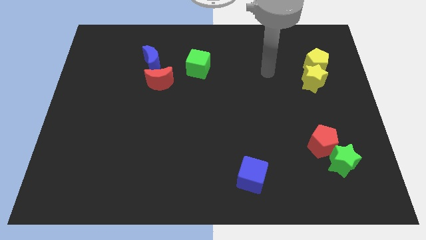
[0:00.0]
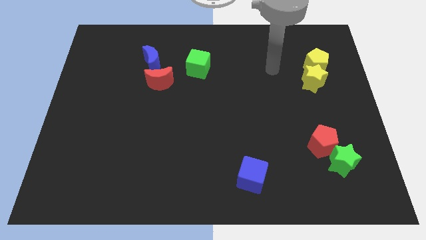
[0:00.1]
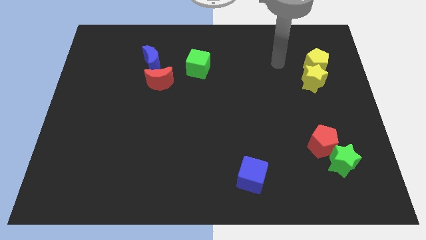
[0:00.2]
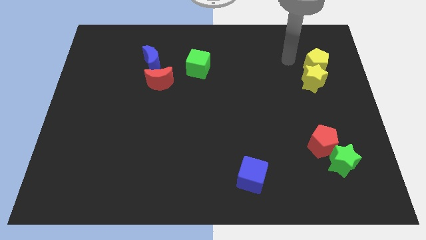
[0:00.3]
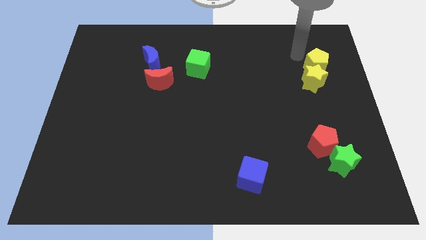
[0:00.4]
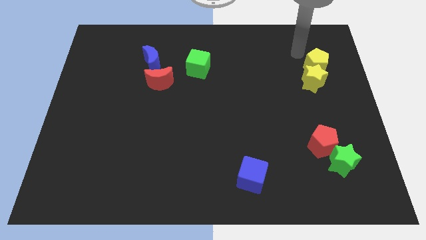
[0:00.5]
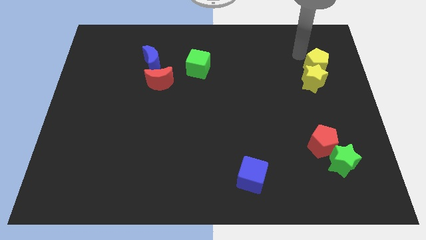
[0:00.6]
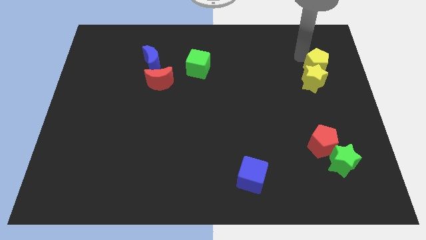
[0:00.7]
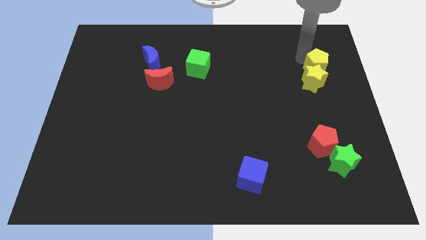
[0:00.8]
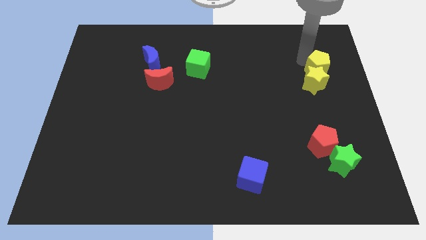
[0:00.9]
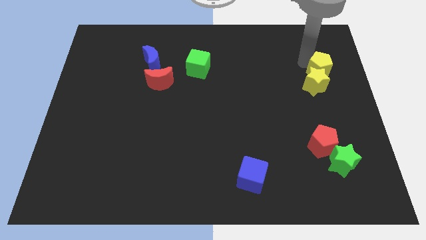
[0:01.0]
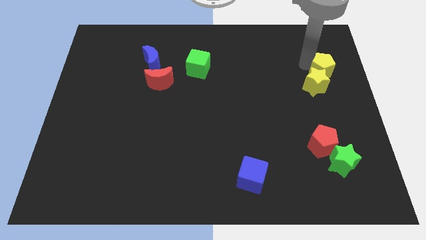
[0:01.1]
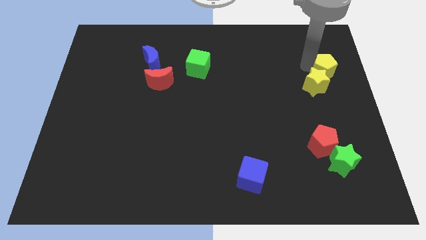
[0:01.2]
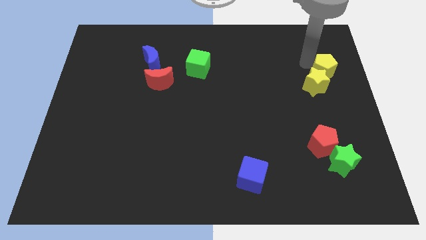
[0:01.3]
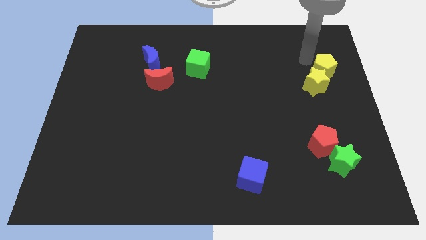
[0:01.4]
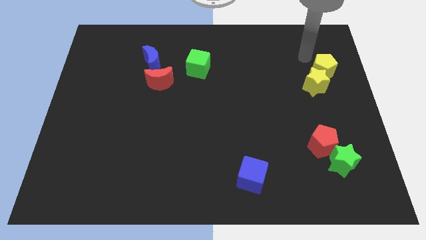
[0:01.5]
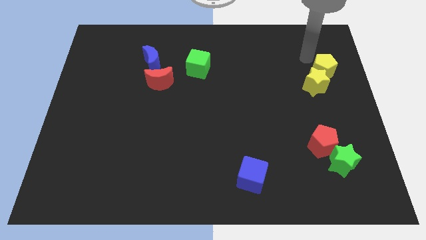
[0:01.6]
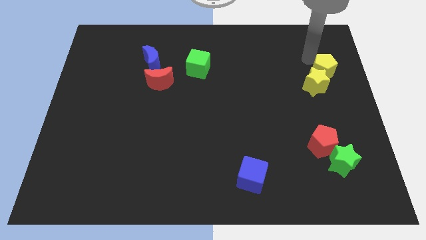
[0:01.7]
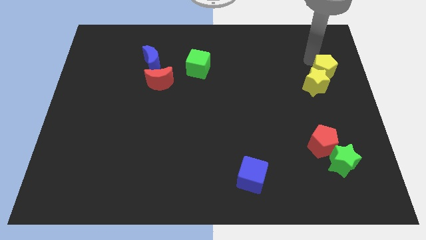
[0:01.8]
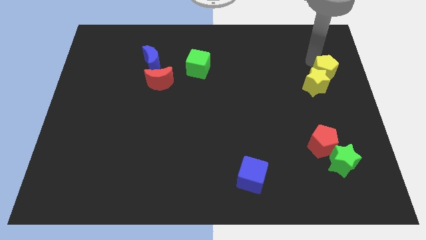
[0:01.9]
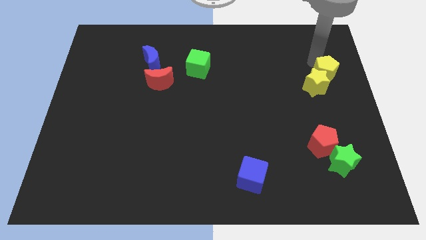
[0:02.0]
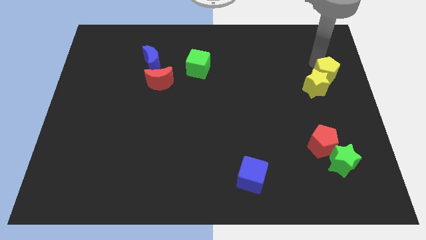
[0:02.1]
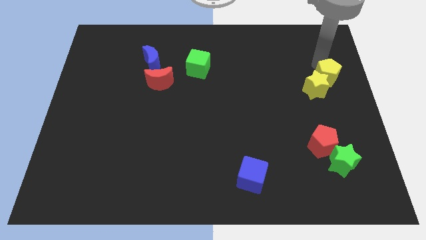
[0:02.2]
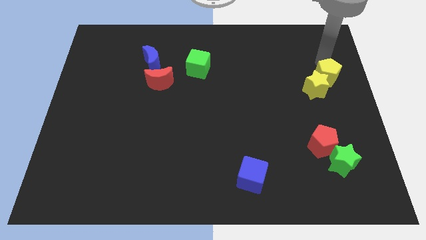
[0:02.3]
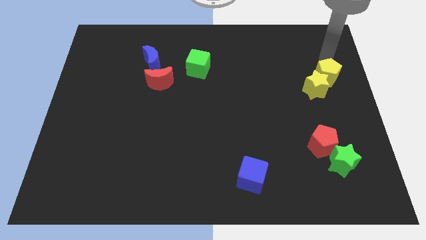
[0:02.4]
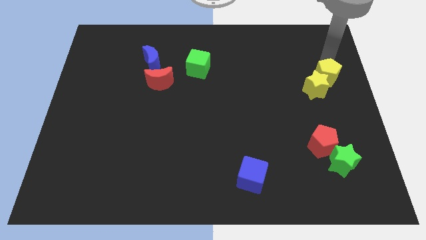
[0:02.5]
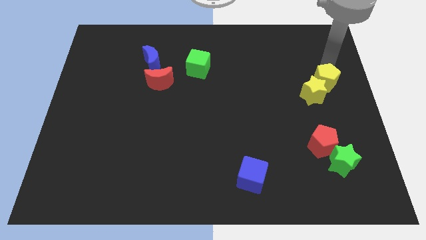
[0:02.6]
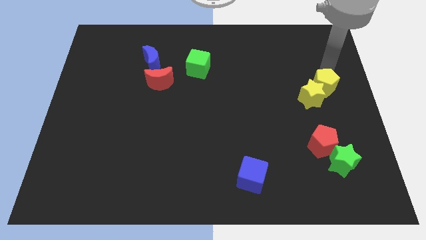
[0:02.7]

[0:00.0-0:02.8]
push the yellow pentagon a little bit downwards

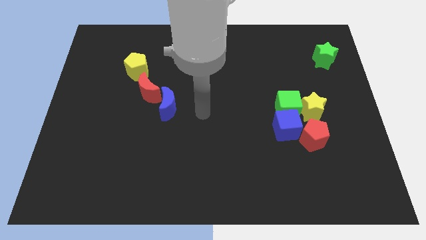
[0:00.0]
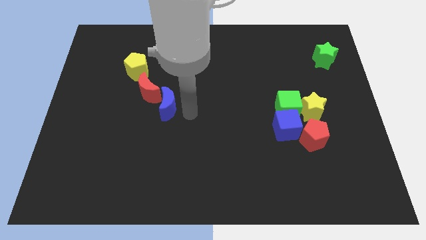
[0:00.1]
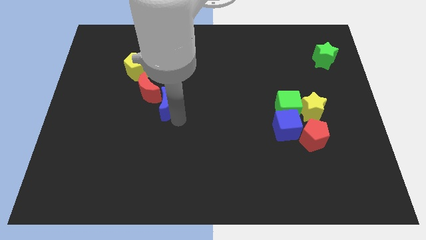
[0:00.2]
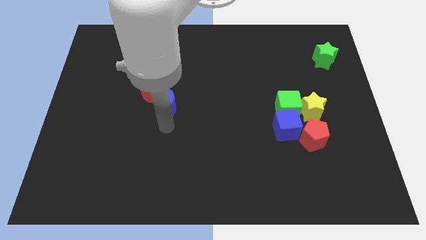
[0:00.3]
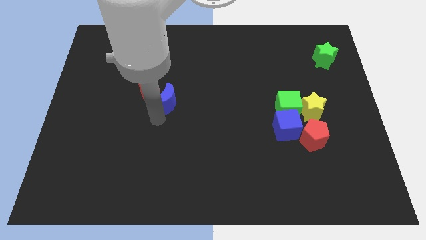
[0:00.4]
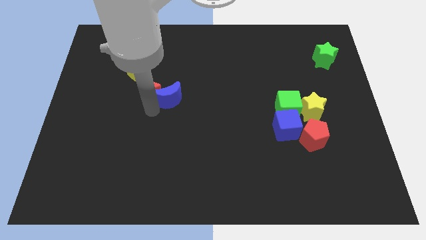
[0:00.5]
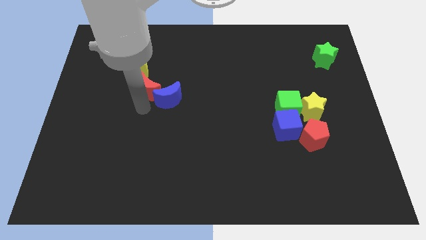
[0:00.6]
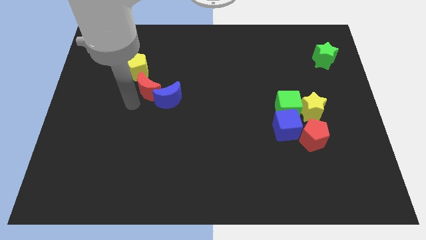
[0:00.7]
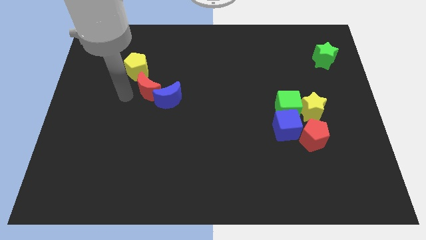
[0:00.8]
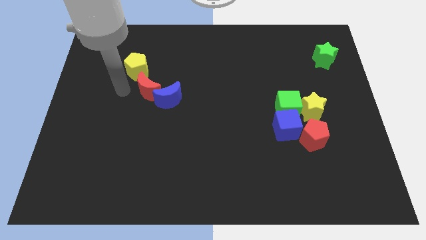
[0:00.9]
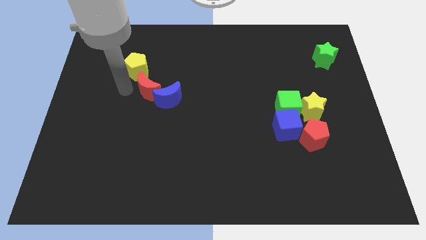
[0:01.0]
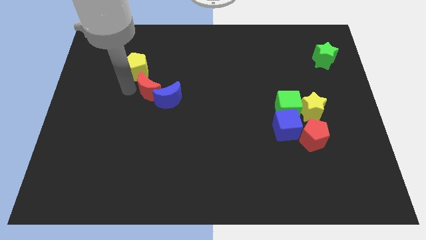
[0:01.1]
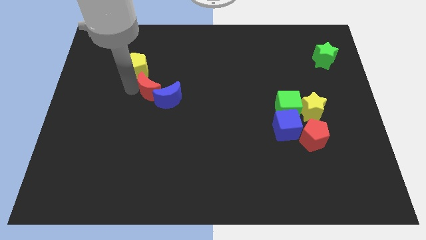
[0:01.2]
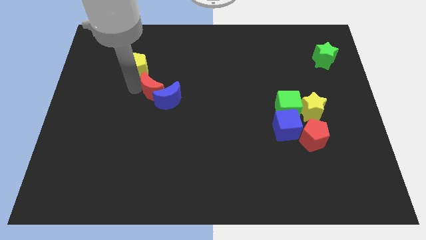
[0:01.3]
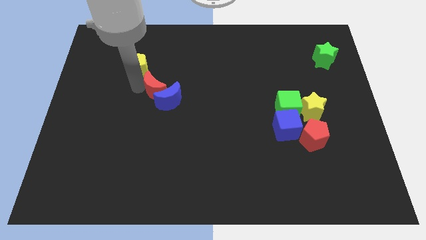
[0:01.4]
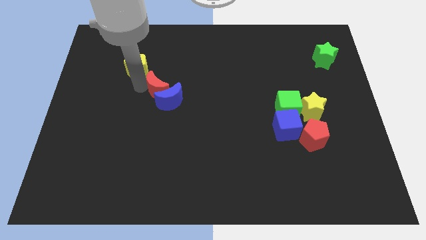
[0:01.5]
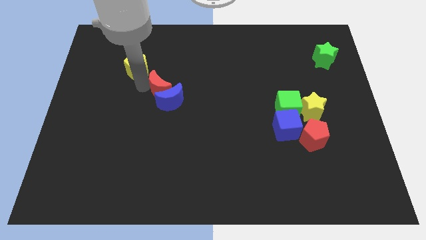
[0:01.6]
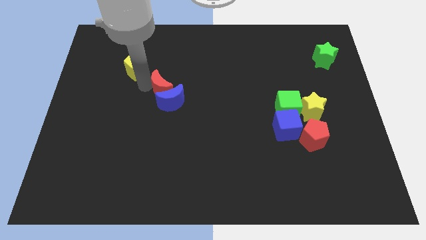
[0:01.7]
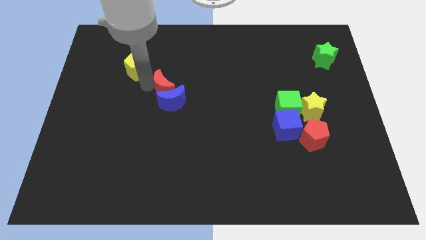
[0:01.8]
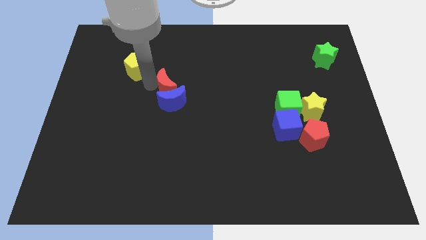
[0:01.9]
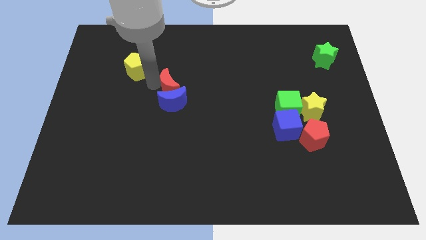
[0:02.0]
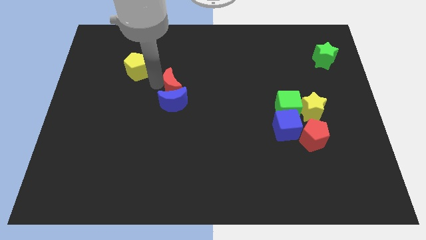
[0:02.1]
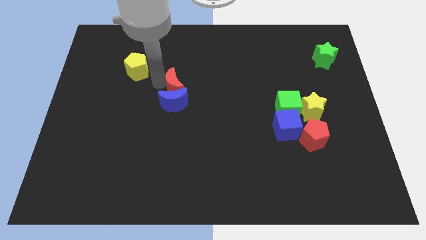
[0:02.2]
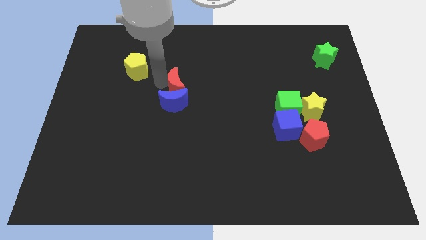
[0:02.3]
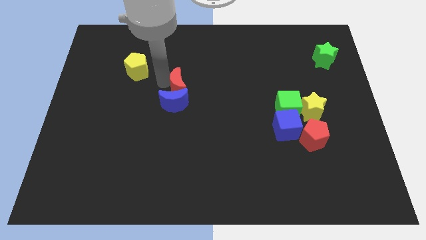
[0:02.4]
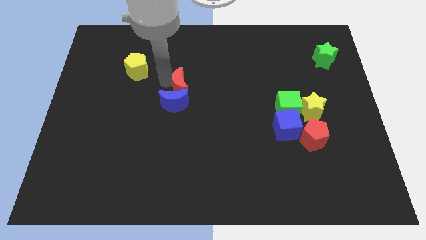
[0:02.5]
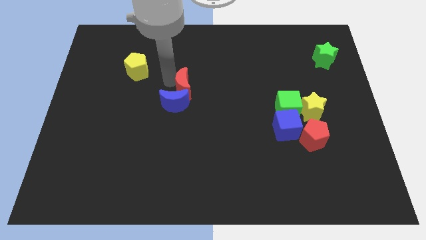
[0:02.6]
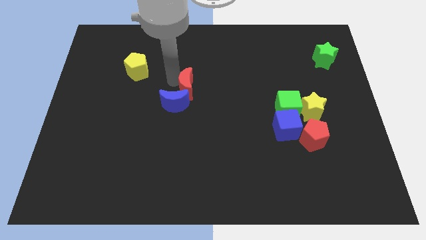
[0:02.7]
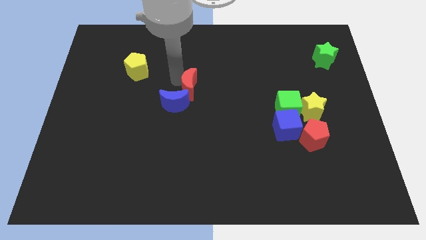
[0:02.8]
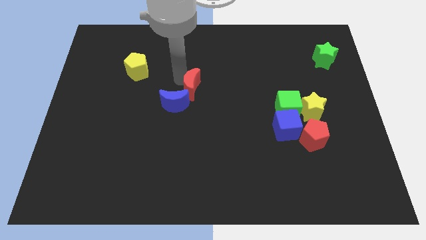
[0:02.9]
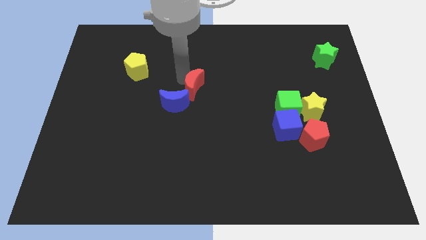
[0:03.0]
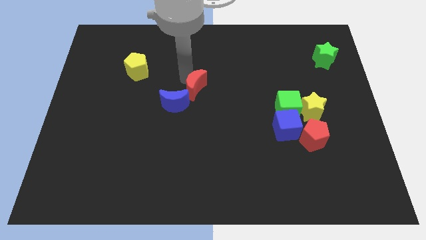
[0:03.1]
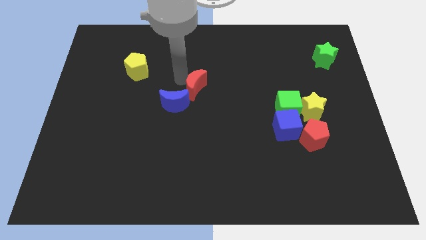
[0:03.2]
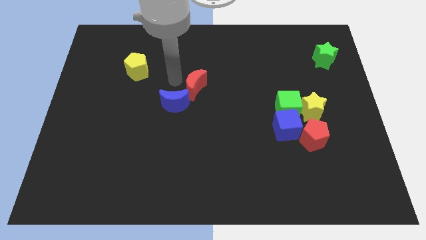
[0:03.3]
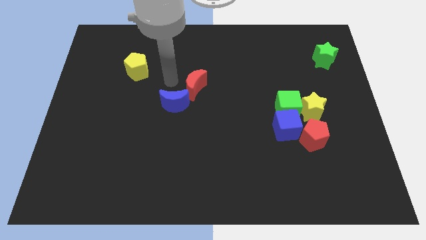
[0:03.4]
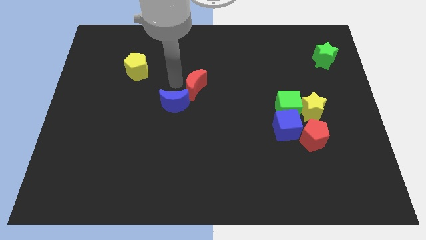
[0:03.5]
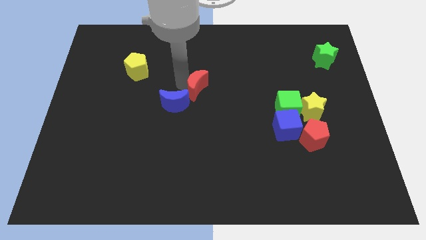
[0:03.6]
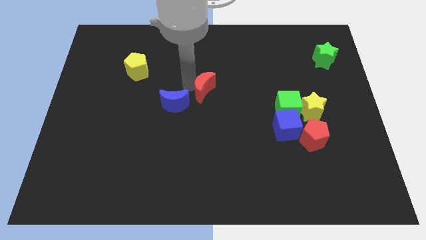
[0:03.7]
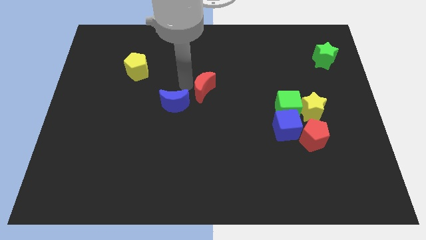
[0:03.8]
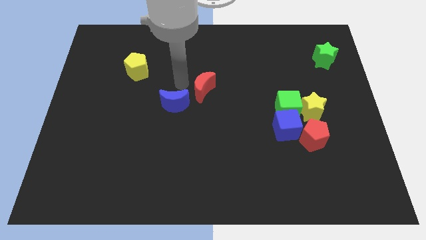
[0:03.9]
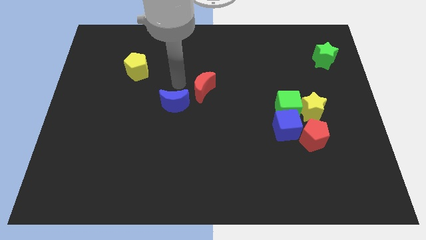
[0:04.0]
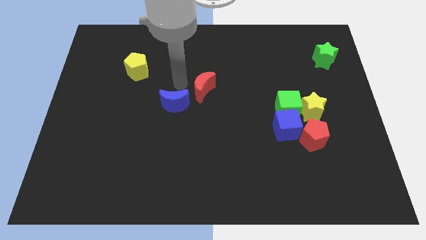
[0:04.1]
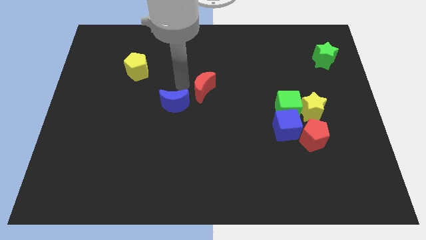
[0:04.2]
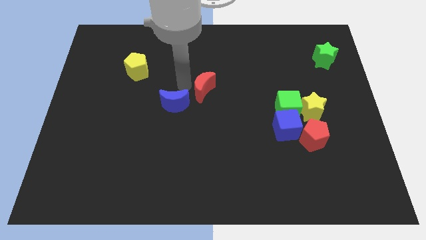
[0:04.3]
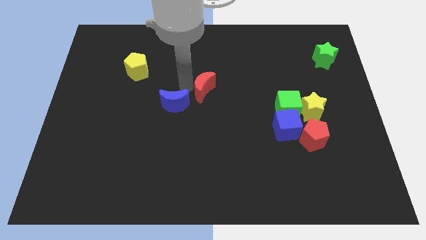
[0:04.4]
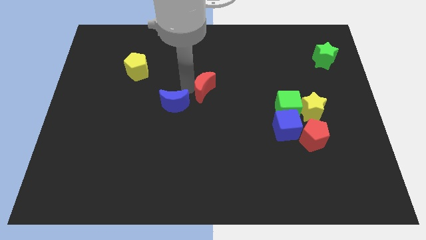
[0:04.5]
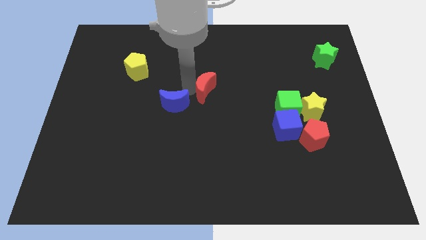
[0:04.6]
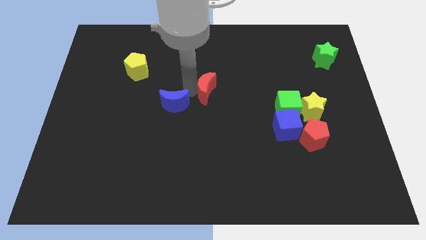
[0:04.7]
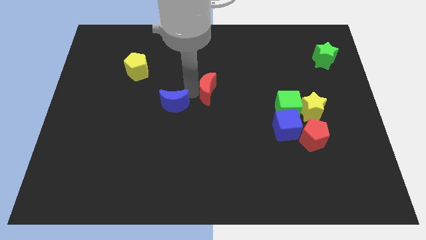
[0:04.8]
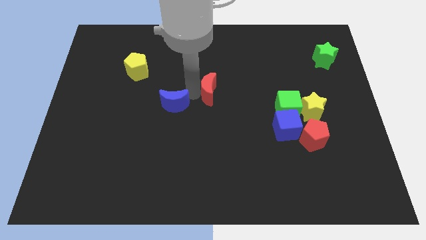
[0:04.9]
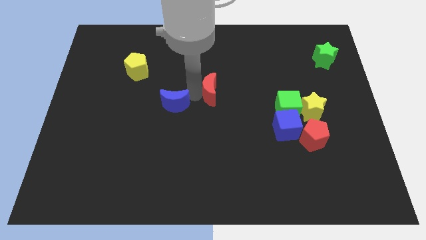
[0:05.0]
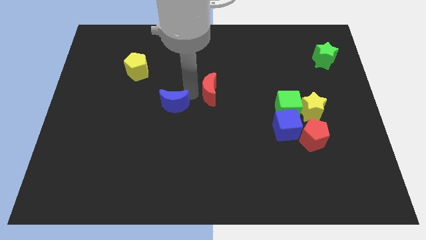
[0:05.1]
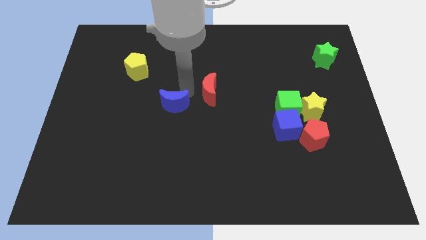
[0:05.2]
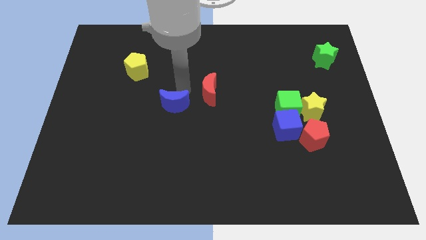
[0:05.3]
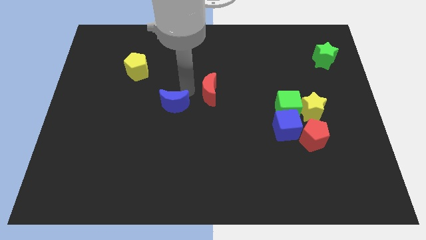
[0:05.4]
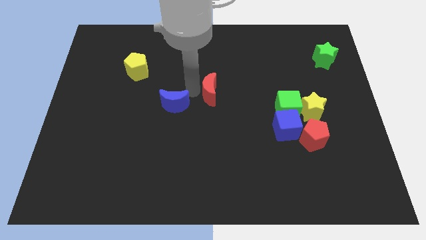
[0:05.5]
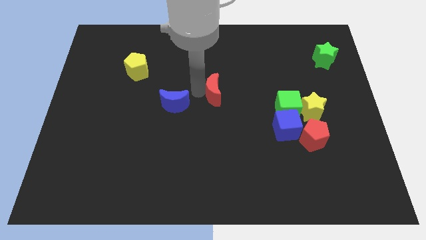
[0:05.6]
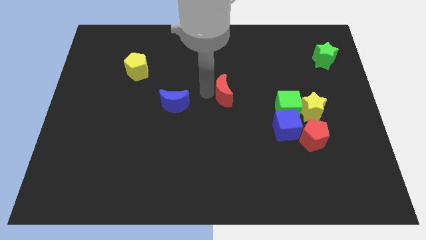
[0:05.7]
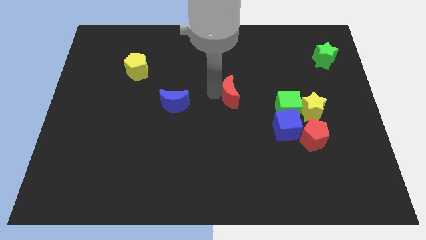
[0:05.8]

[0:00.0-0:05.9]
move the red moon right
